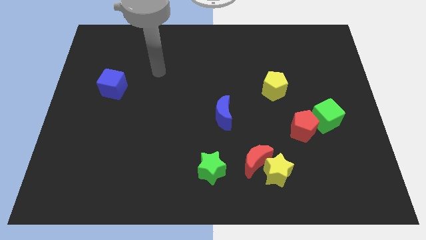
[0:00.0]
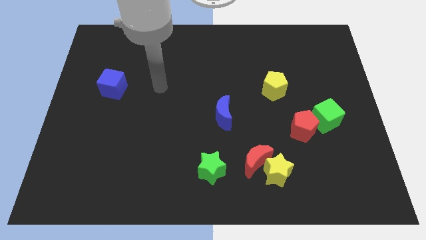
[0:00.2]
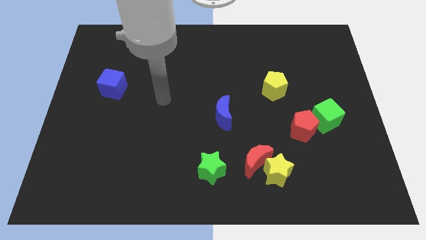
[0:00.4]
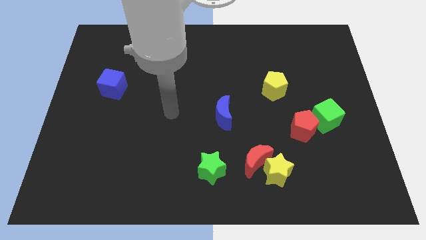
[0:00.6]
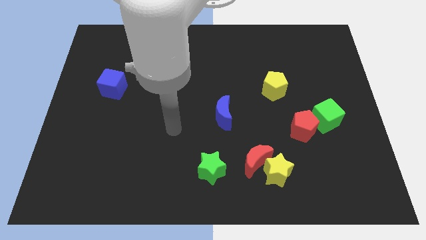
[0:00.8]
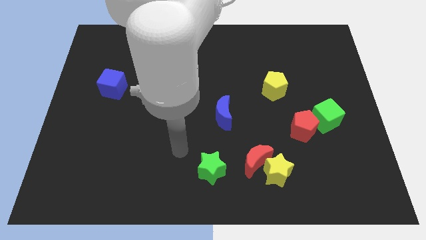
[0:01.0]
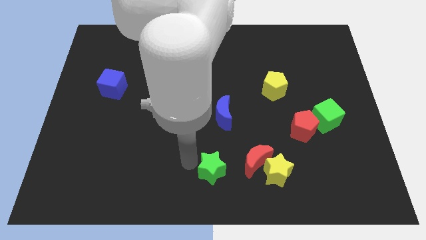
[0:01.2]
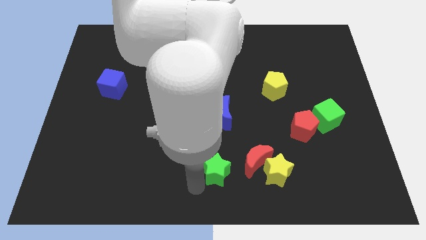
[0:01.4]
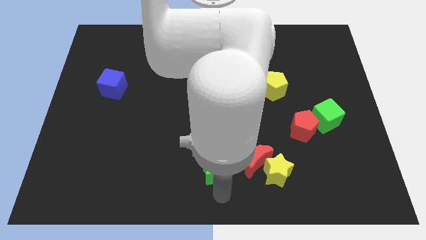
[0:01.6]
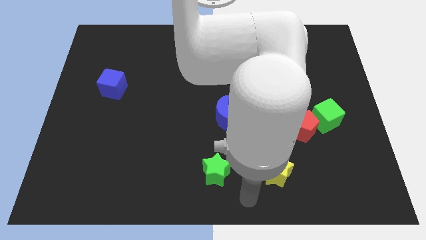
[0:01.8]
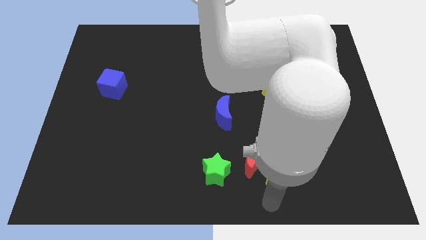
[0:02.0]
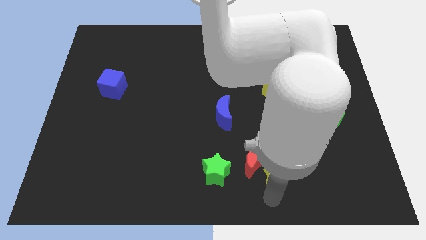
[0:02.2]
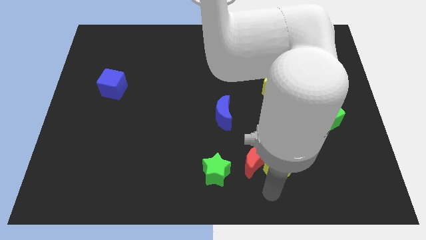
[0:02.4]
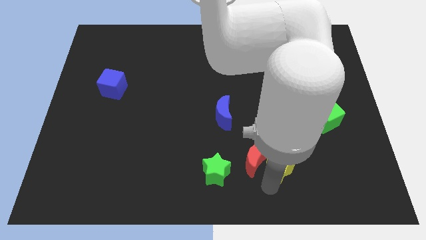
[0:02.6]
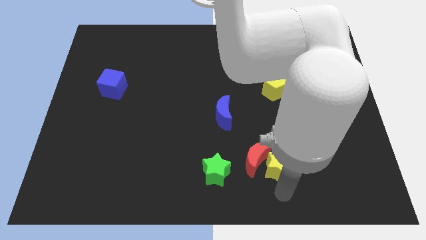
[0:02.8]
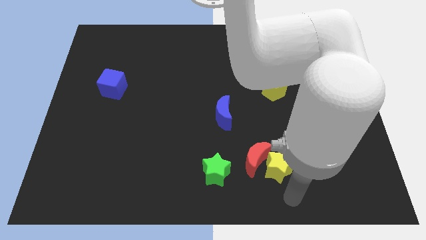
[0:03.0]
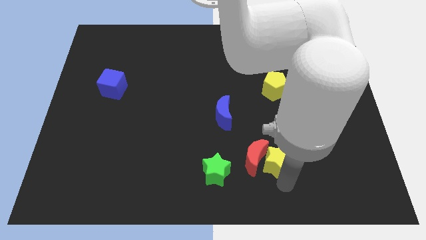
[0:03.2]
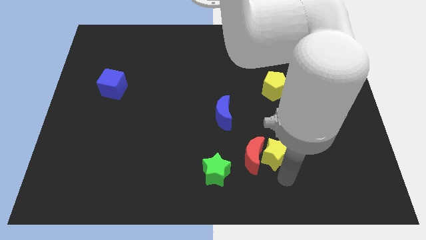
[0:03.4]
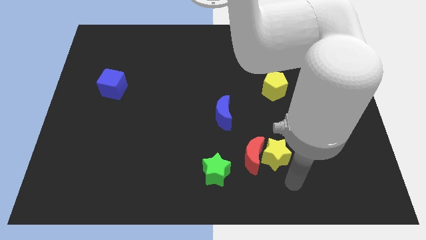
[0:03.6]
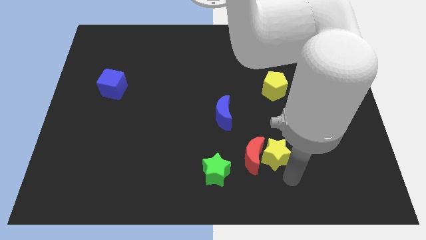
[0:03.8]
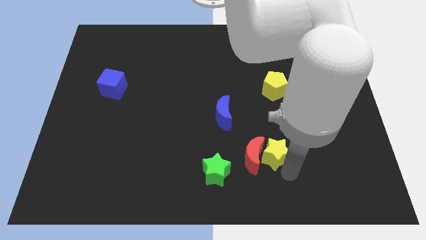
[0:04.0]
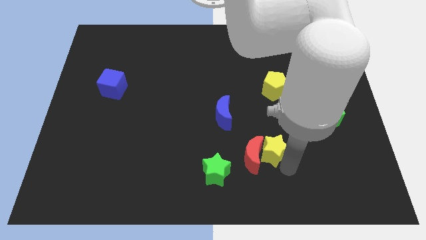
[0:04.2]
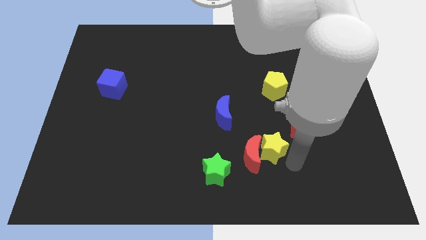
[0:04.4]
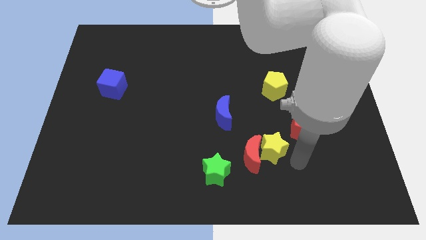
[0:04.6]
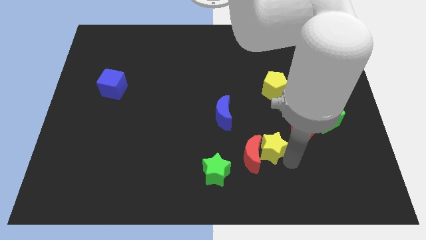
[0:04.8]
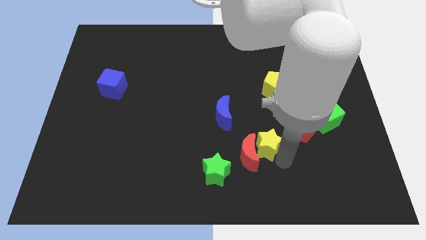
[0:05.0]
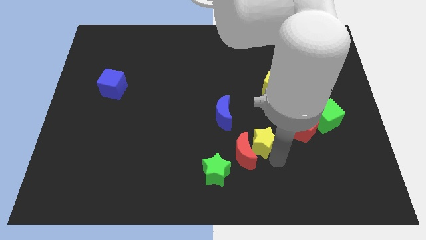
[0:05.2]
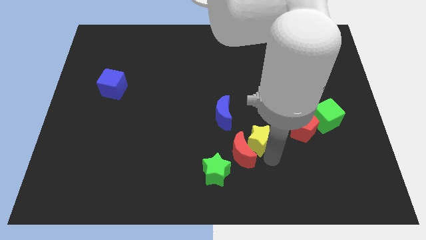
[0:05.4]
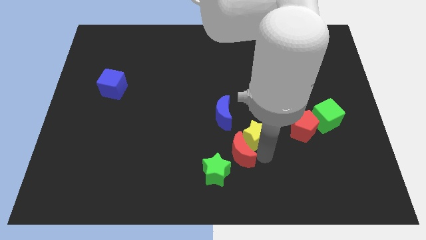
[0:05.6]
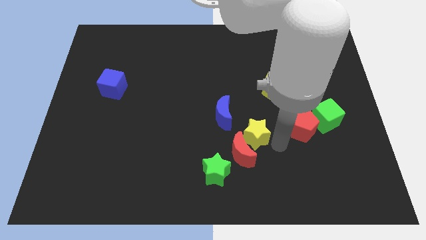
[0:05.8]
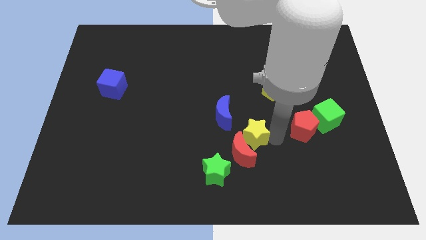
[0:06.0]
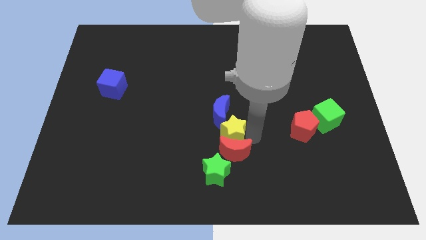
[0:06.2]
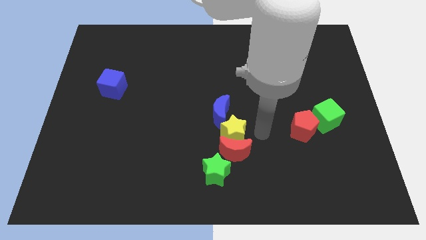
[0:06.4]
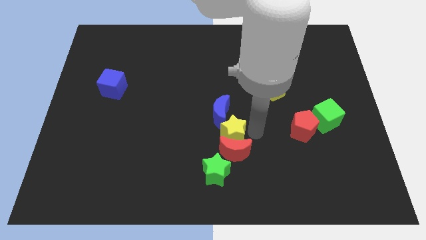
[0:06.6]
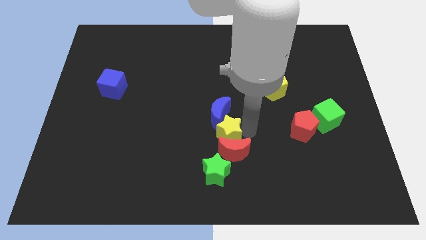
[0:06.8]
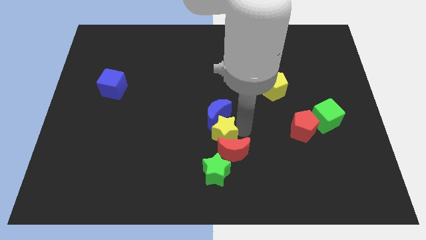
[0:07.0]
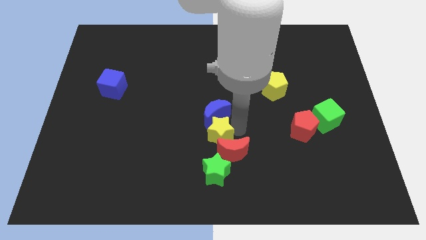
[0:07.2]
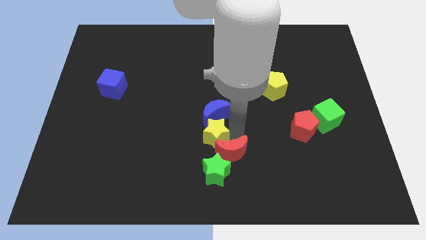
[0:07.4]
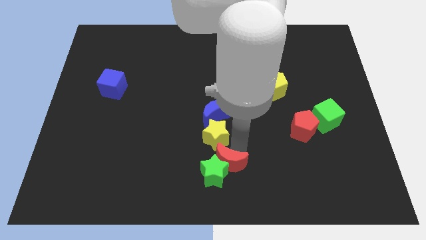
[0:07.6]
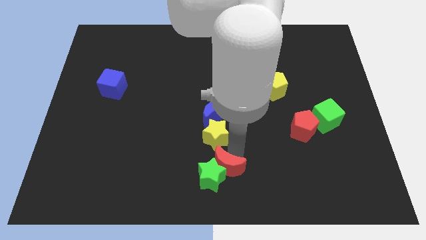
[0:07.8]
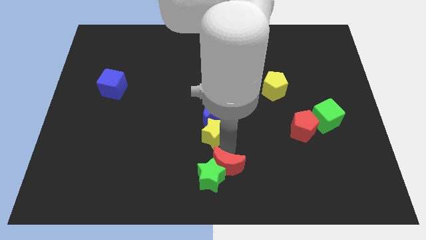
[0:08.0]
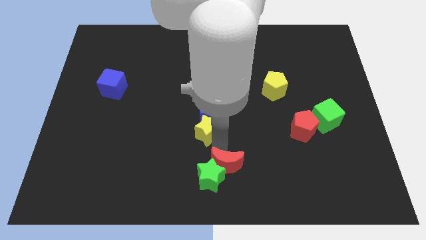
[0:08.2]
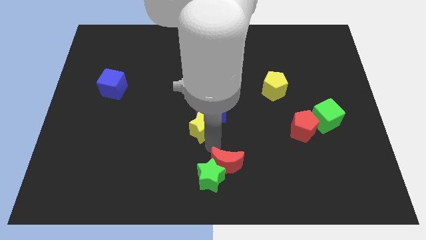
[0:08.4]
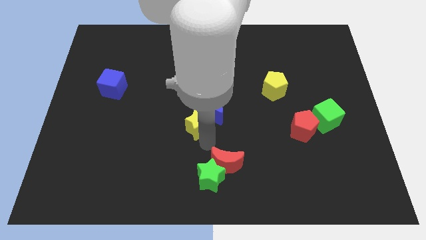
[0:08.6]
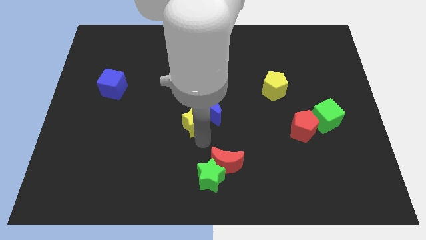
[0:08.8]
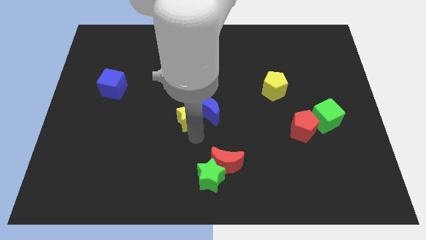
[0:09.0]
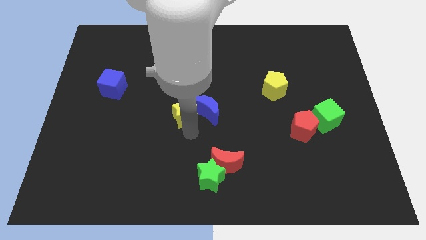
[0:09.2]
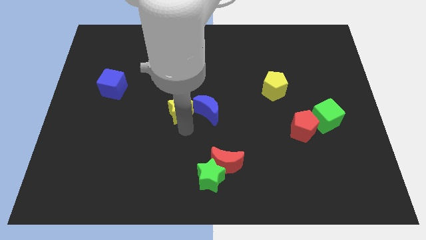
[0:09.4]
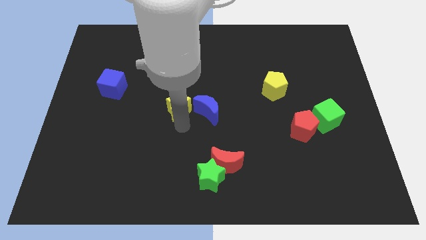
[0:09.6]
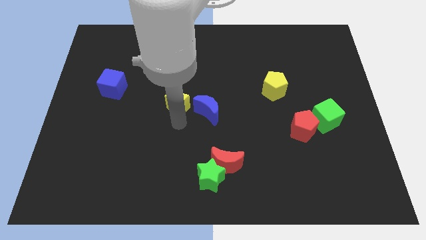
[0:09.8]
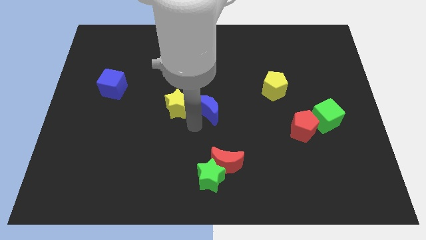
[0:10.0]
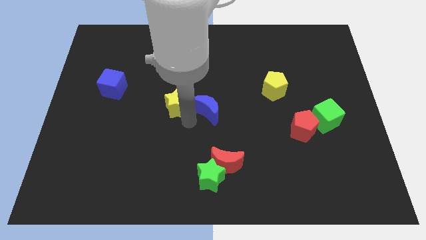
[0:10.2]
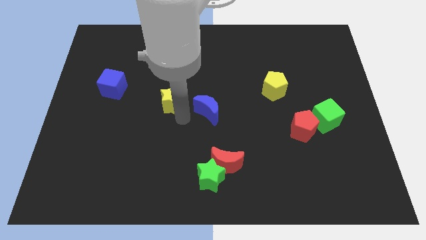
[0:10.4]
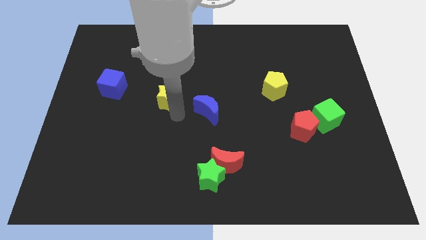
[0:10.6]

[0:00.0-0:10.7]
push the yellow star just right of the blue cube

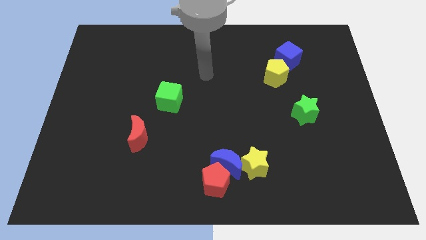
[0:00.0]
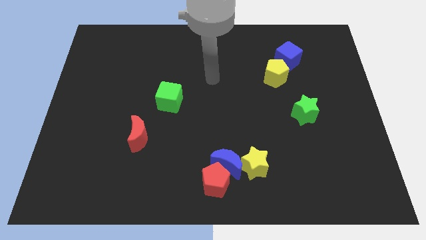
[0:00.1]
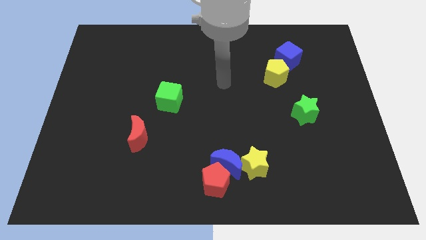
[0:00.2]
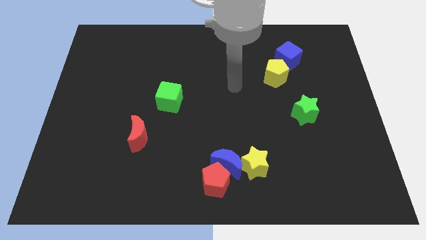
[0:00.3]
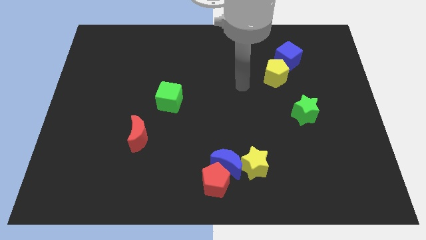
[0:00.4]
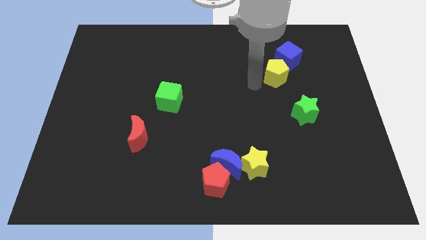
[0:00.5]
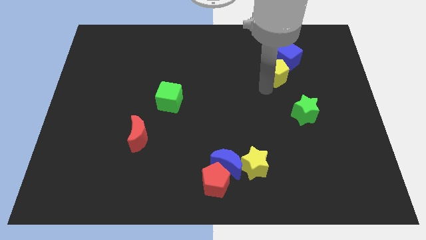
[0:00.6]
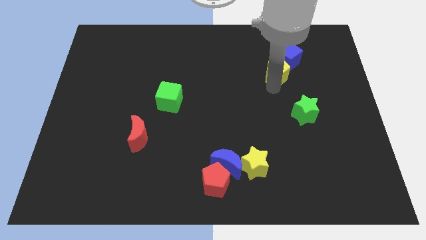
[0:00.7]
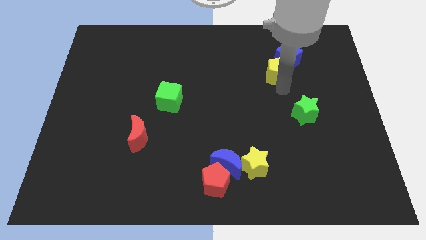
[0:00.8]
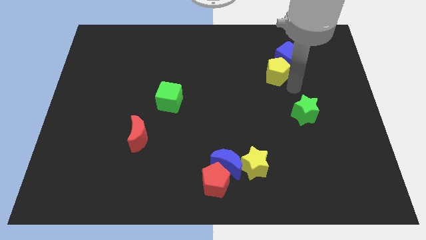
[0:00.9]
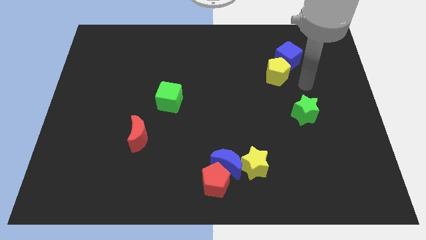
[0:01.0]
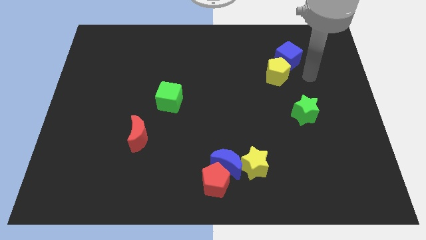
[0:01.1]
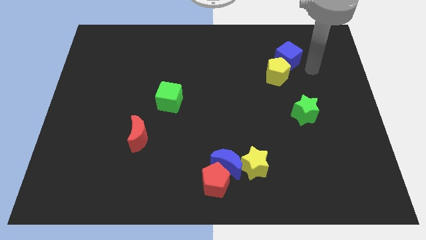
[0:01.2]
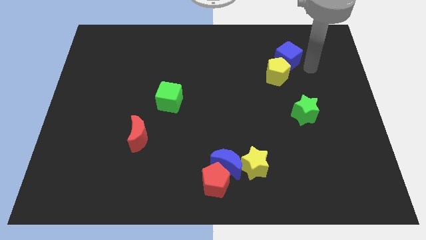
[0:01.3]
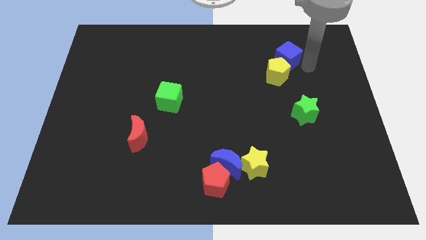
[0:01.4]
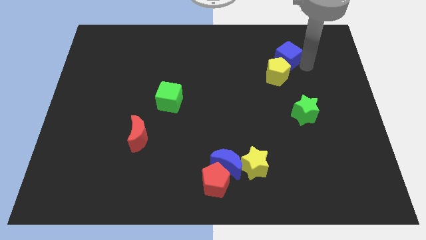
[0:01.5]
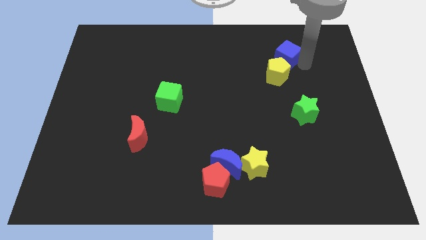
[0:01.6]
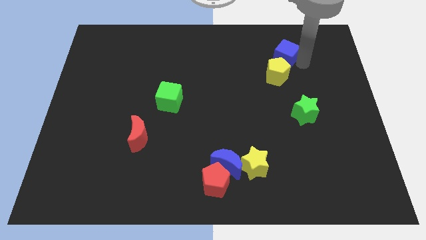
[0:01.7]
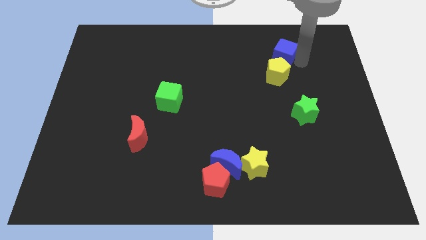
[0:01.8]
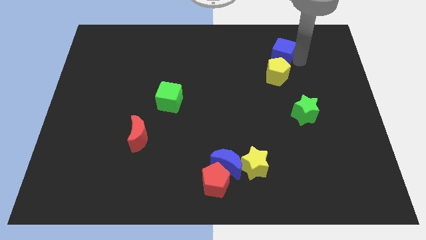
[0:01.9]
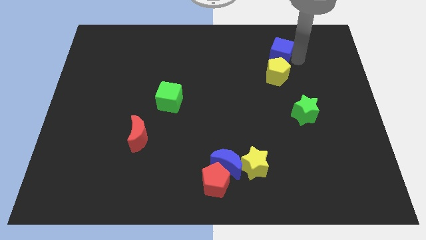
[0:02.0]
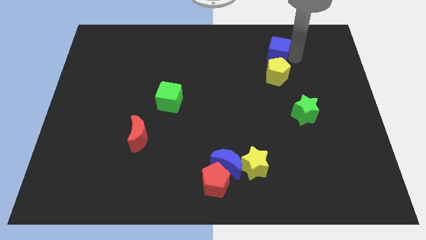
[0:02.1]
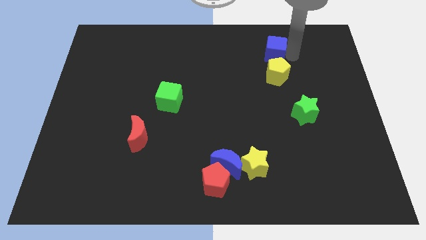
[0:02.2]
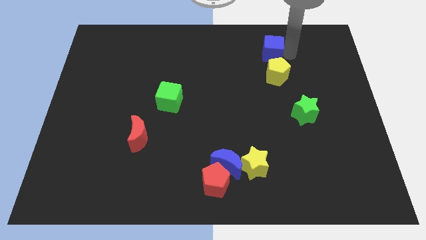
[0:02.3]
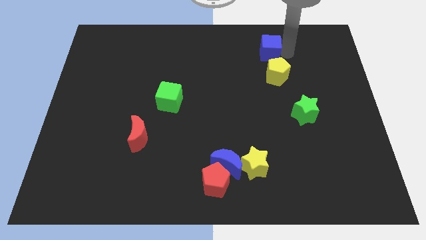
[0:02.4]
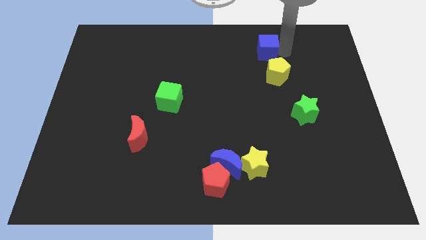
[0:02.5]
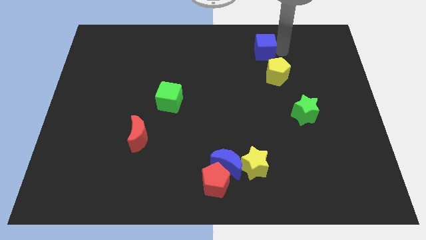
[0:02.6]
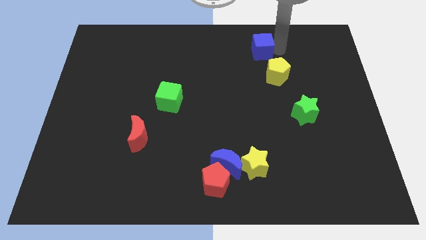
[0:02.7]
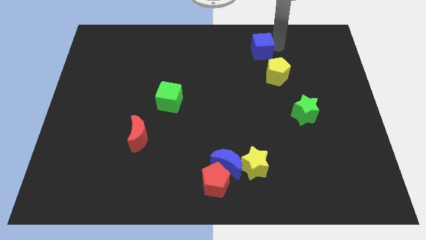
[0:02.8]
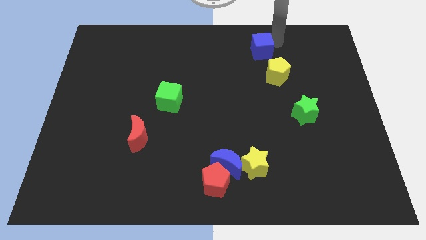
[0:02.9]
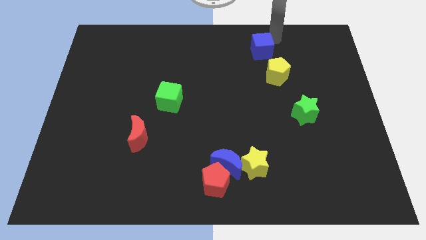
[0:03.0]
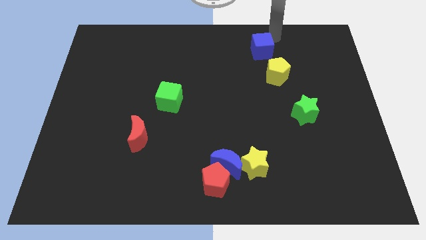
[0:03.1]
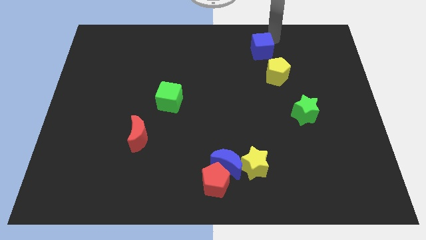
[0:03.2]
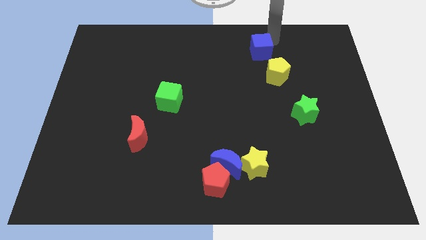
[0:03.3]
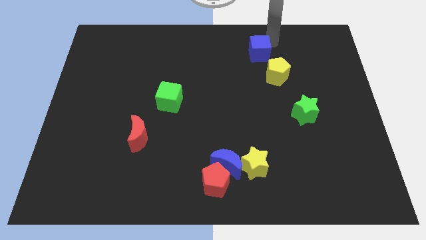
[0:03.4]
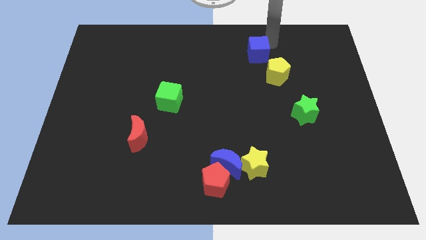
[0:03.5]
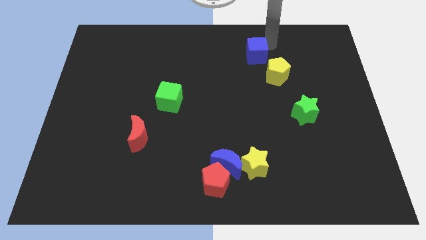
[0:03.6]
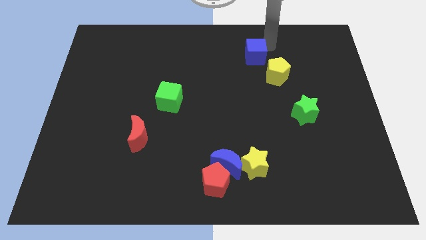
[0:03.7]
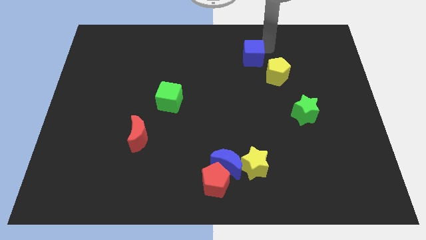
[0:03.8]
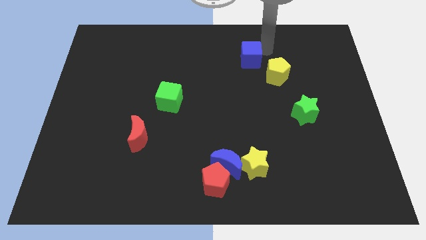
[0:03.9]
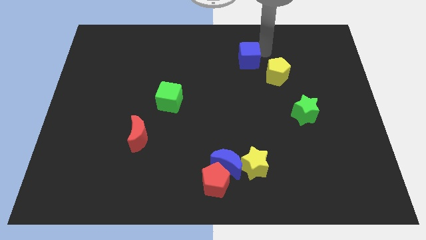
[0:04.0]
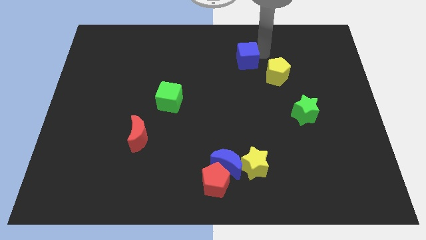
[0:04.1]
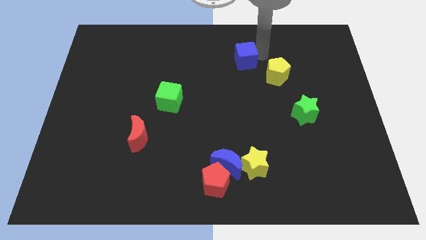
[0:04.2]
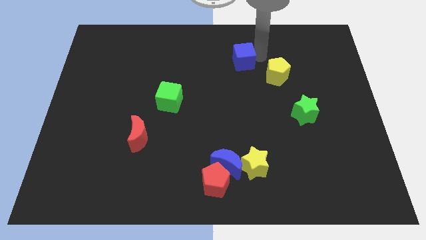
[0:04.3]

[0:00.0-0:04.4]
slide the blue cube to the left of the yellow pentagon
